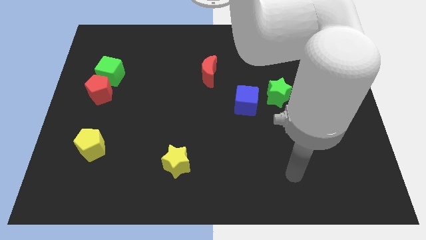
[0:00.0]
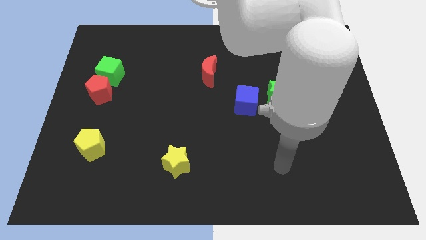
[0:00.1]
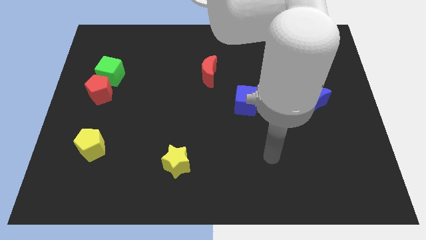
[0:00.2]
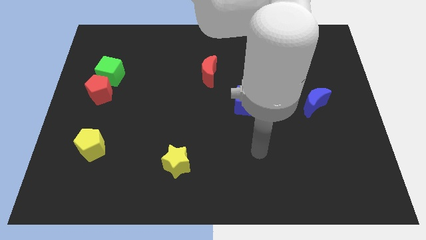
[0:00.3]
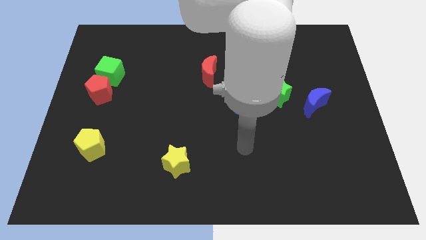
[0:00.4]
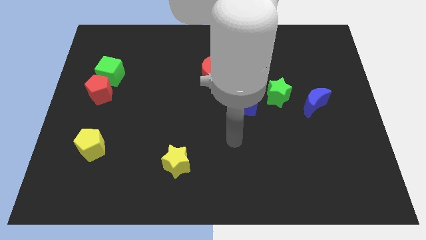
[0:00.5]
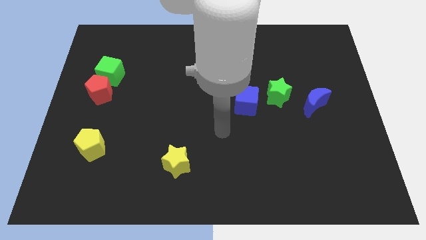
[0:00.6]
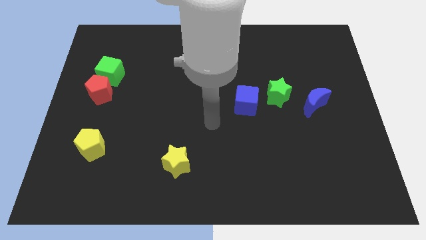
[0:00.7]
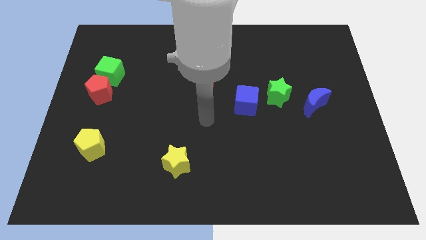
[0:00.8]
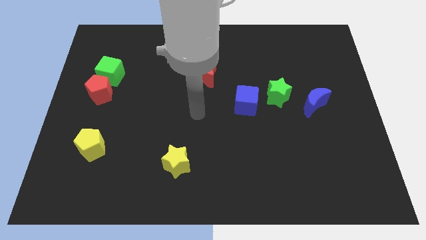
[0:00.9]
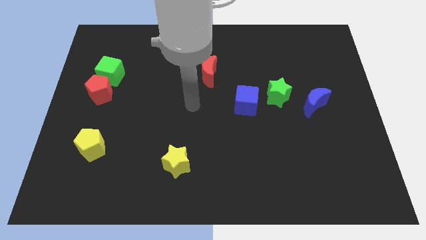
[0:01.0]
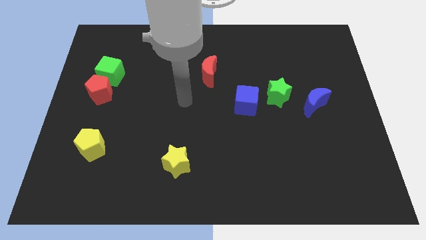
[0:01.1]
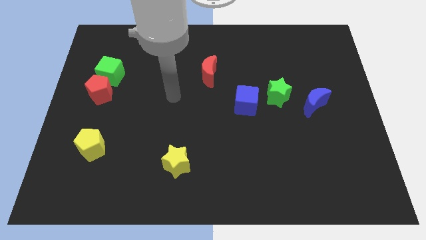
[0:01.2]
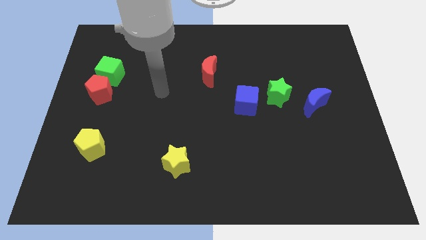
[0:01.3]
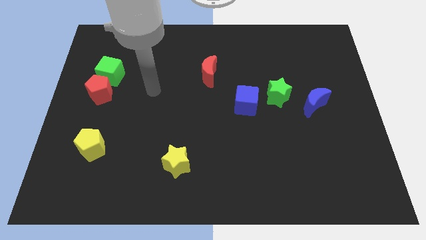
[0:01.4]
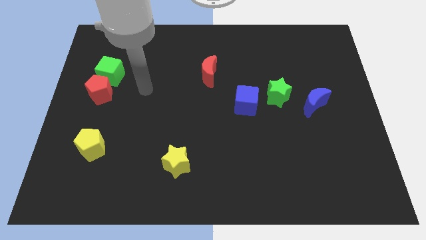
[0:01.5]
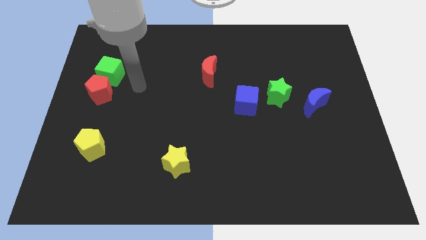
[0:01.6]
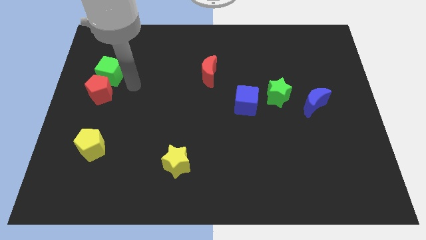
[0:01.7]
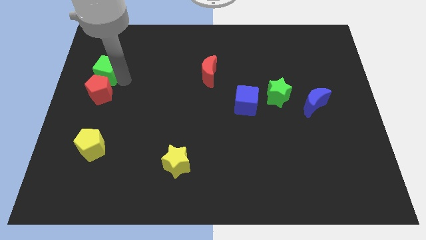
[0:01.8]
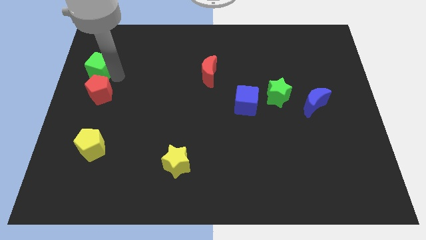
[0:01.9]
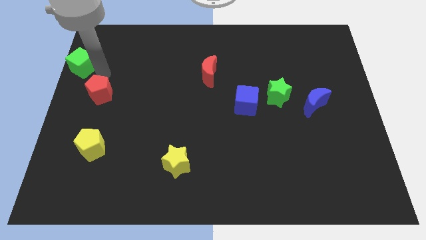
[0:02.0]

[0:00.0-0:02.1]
separate the red pentagon from the green cube

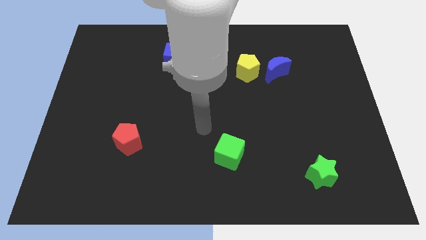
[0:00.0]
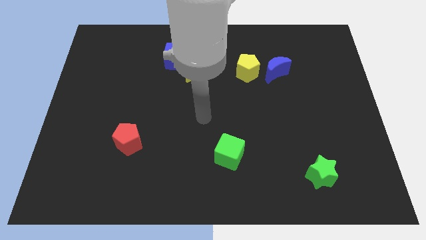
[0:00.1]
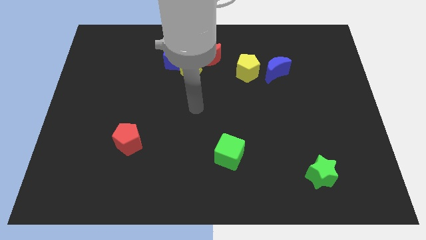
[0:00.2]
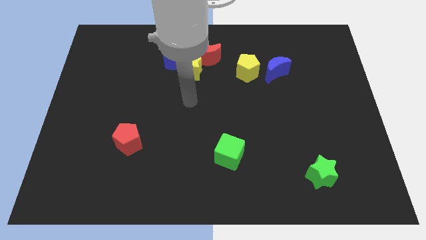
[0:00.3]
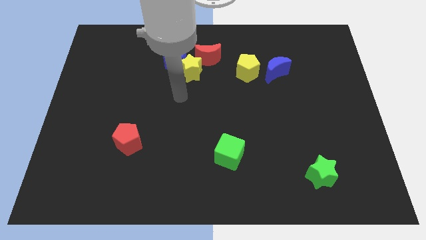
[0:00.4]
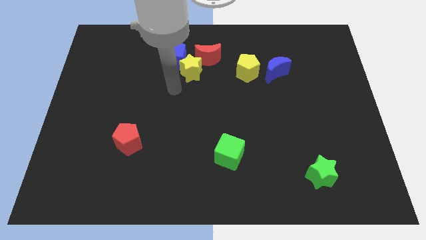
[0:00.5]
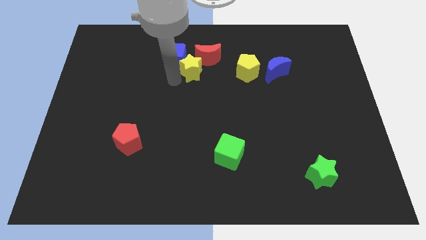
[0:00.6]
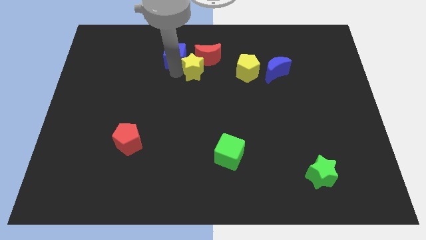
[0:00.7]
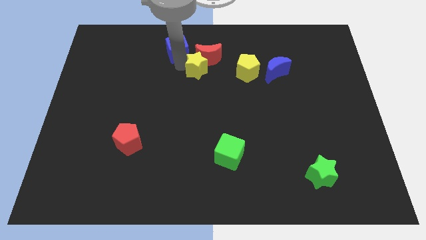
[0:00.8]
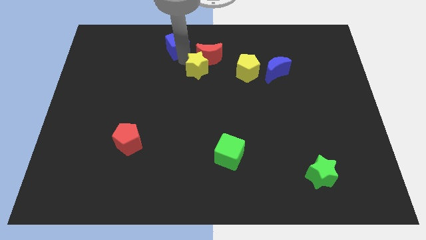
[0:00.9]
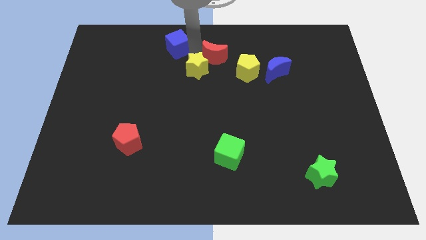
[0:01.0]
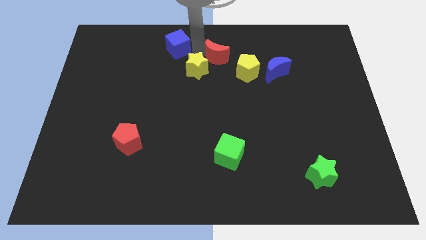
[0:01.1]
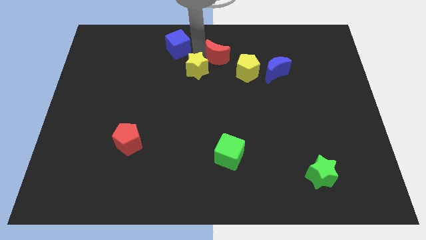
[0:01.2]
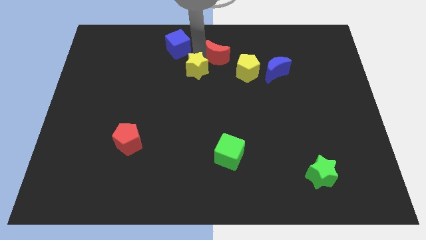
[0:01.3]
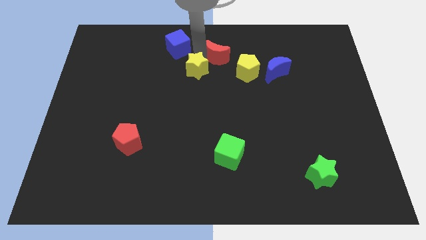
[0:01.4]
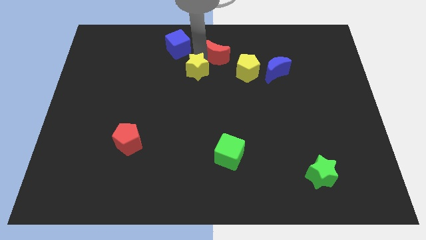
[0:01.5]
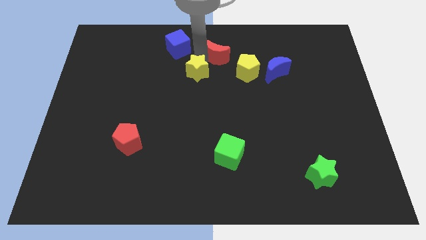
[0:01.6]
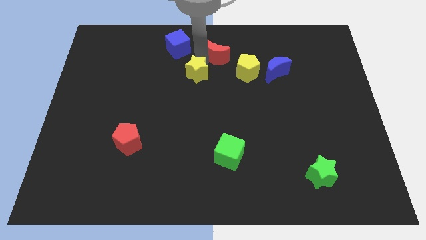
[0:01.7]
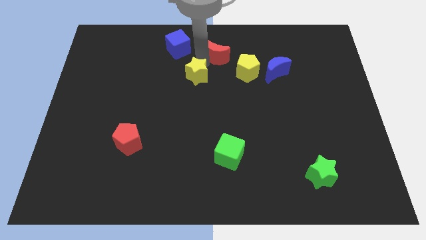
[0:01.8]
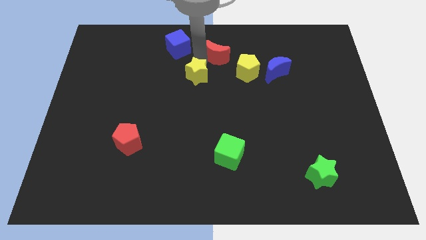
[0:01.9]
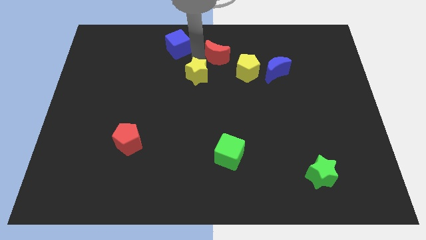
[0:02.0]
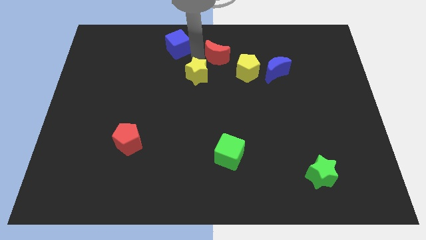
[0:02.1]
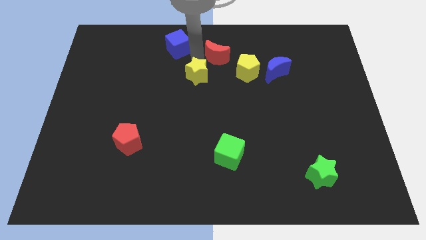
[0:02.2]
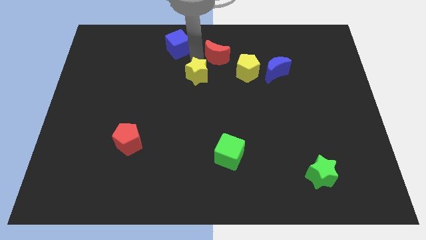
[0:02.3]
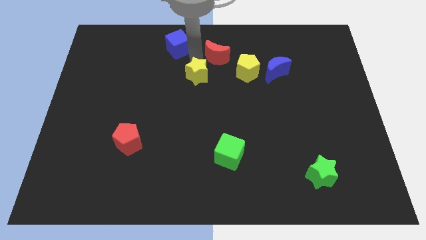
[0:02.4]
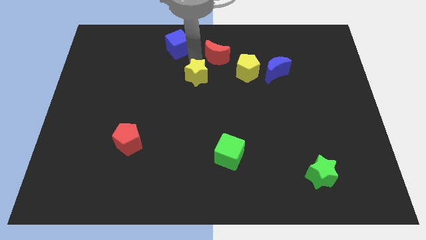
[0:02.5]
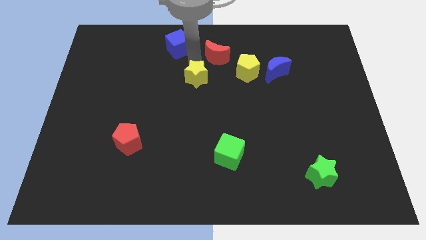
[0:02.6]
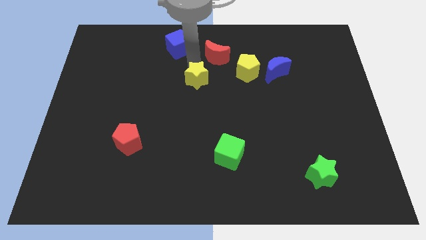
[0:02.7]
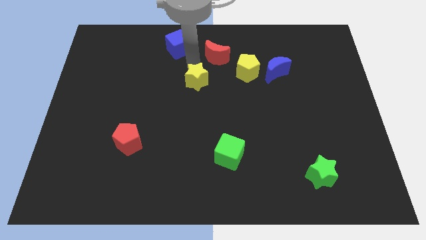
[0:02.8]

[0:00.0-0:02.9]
separate the yellow star from the blue cube and red moon

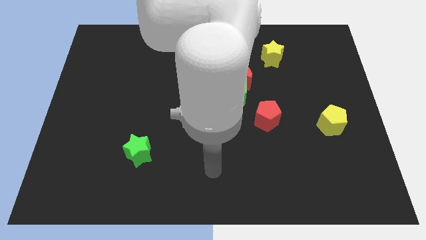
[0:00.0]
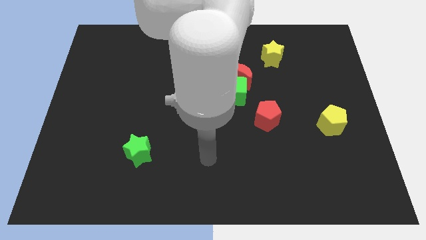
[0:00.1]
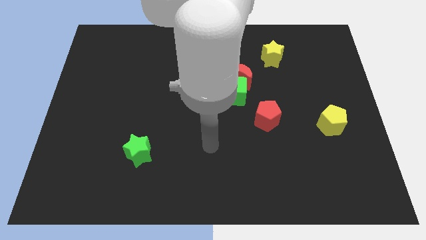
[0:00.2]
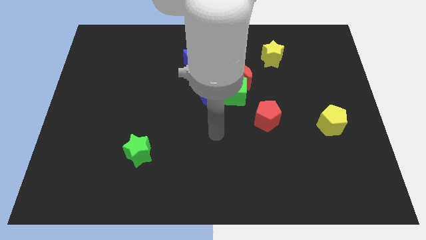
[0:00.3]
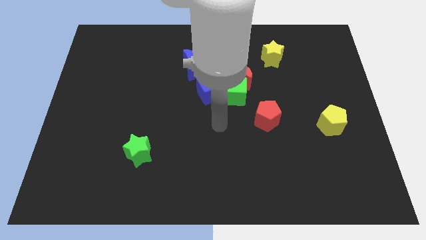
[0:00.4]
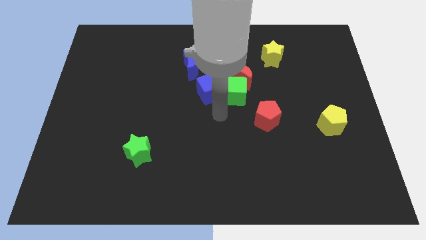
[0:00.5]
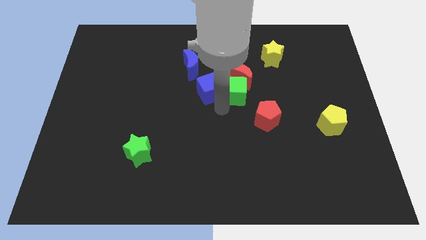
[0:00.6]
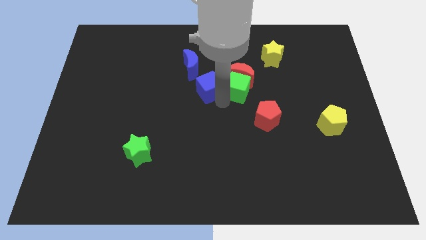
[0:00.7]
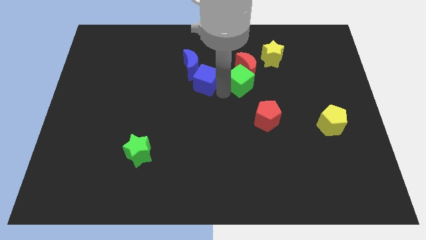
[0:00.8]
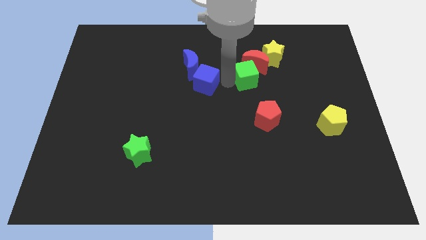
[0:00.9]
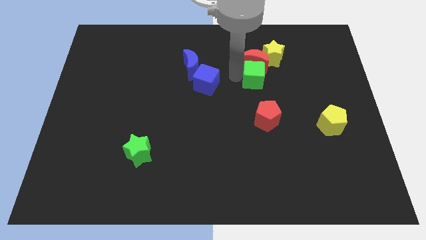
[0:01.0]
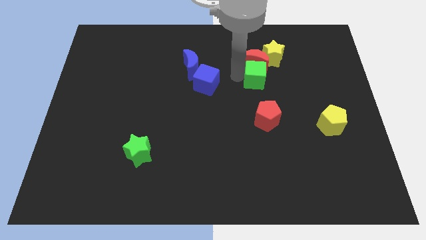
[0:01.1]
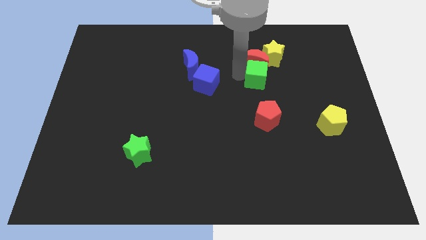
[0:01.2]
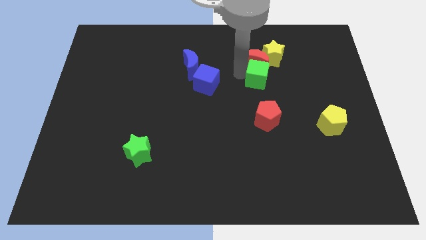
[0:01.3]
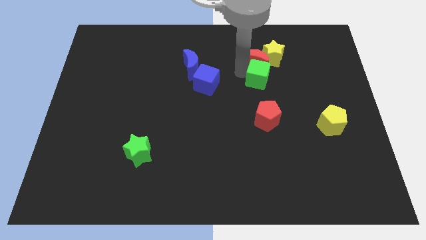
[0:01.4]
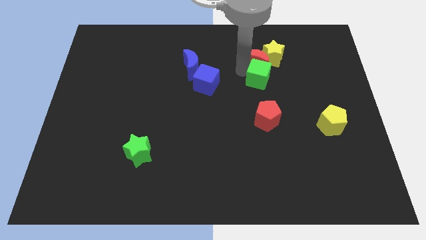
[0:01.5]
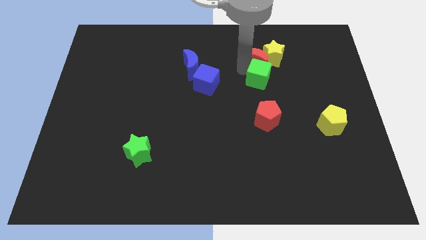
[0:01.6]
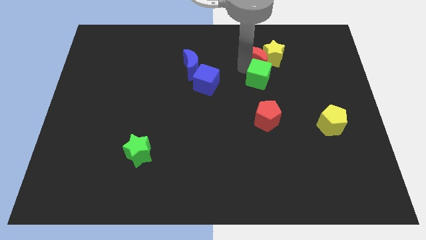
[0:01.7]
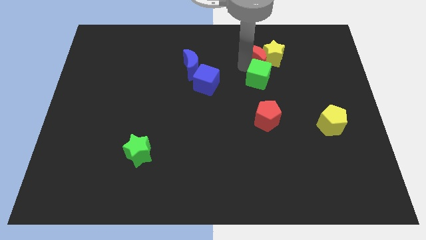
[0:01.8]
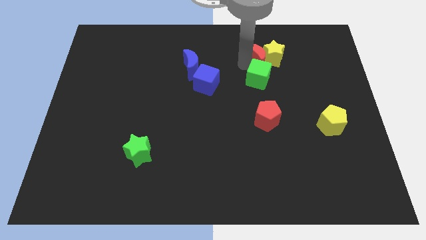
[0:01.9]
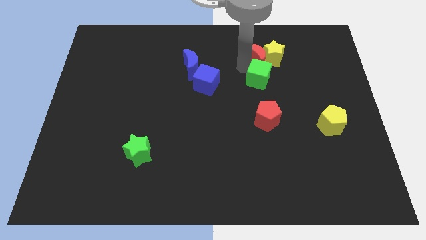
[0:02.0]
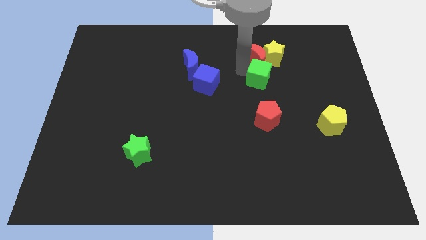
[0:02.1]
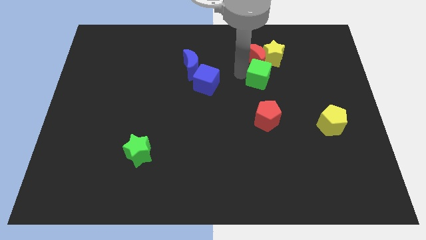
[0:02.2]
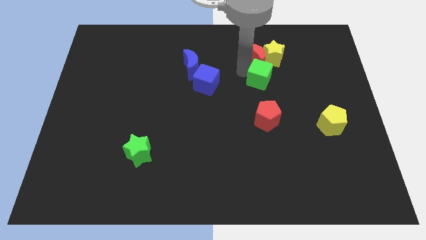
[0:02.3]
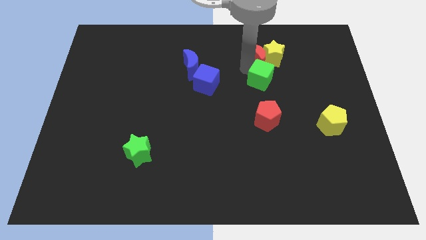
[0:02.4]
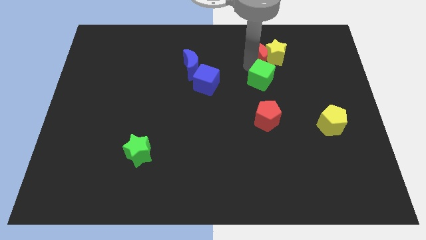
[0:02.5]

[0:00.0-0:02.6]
separate the red moon from the green cube and blue cube

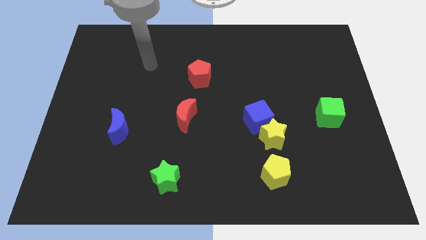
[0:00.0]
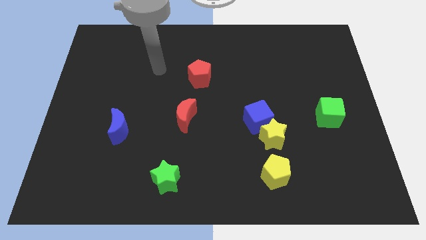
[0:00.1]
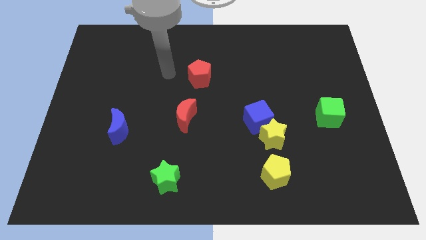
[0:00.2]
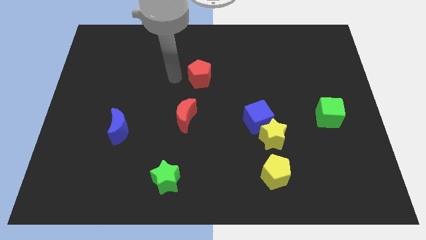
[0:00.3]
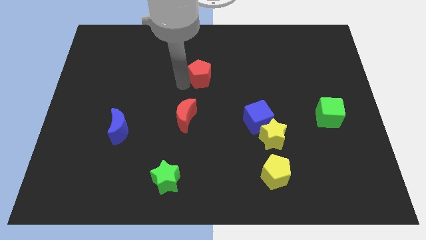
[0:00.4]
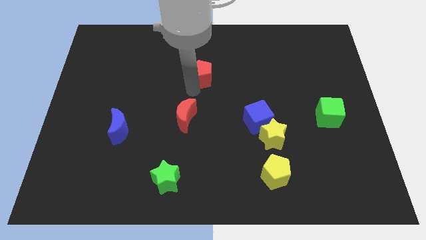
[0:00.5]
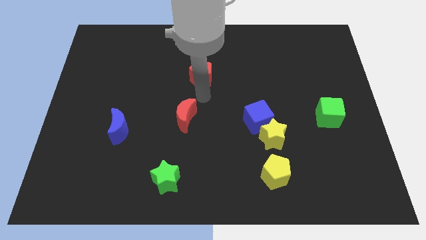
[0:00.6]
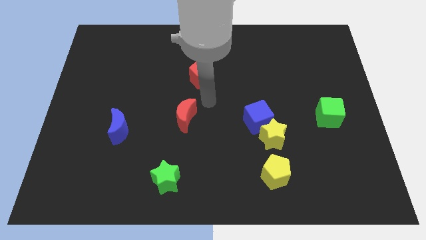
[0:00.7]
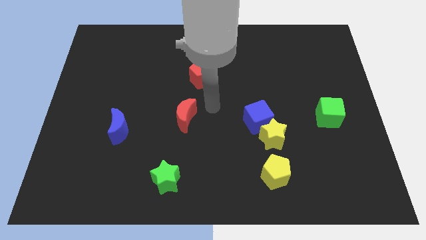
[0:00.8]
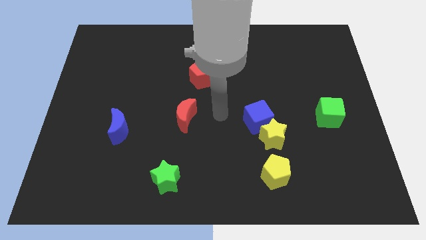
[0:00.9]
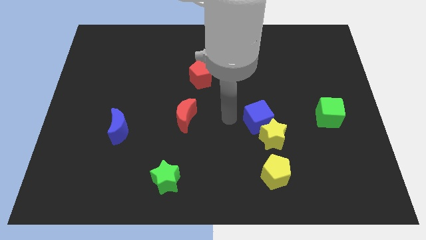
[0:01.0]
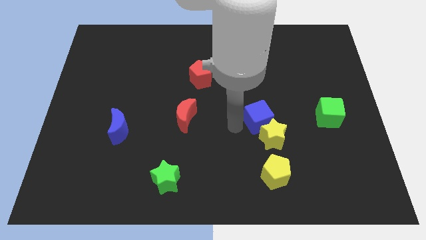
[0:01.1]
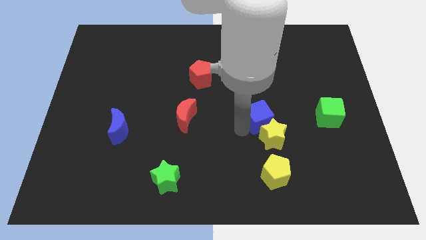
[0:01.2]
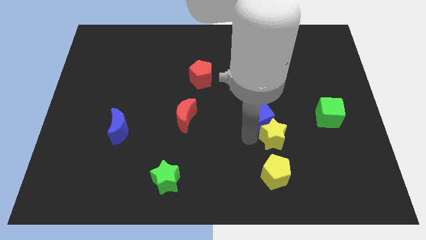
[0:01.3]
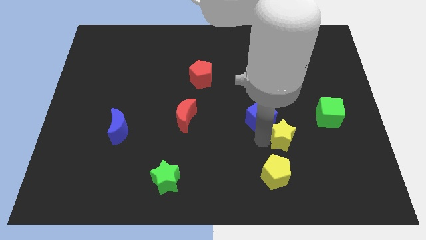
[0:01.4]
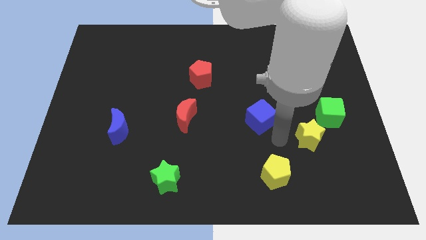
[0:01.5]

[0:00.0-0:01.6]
move the blue cube away from the yellow star

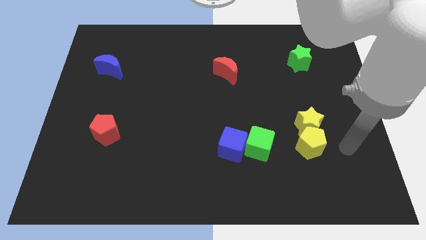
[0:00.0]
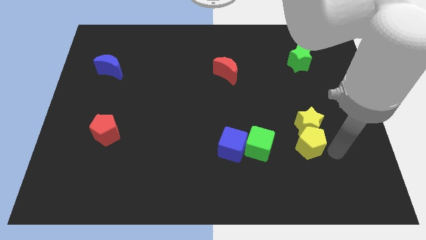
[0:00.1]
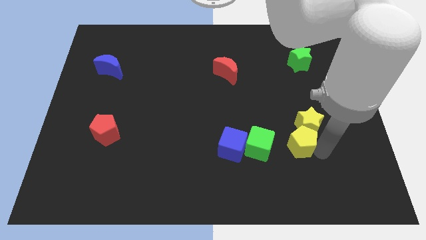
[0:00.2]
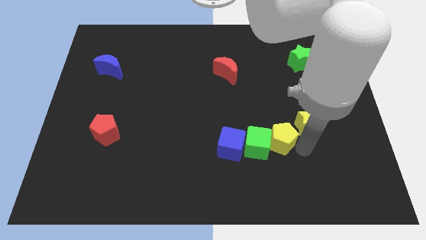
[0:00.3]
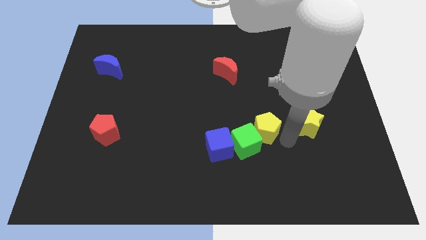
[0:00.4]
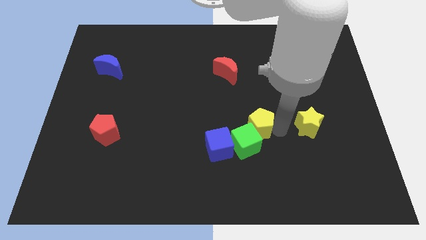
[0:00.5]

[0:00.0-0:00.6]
move the yellow star away from the yellow pentagon
